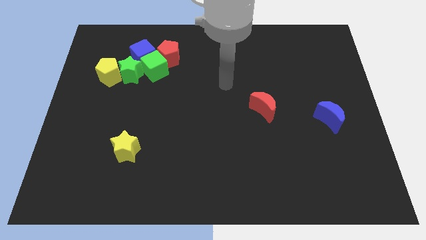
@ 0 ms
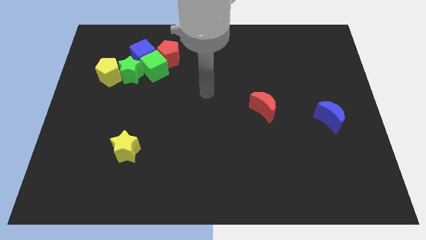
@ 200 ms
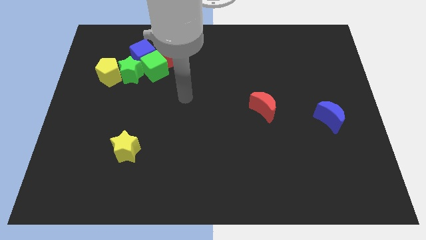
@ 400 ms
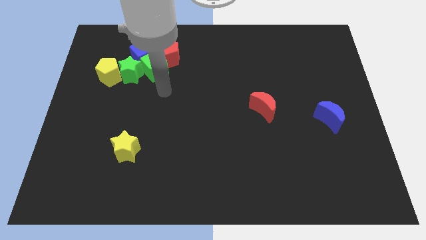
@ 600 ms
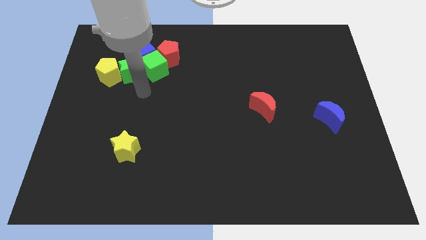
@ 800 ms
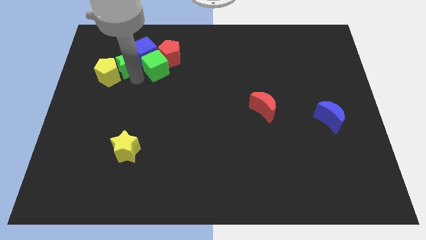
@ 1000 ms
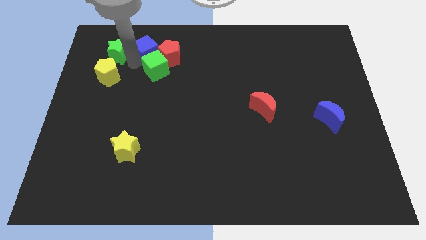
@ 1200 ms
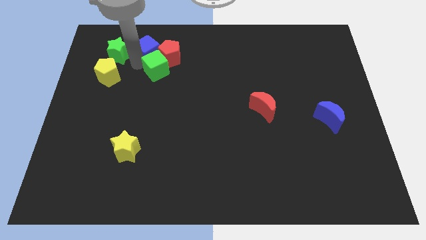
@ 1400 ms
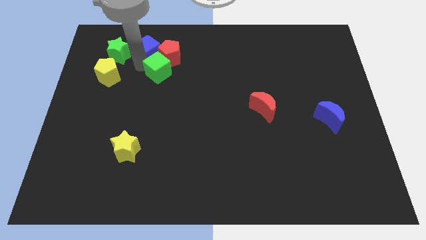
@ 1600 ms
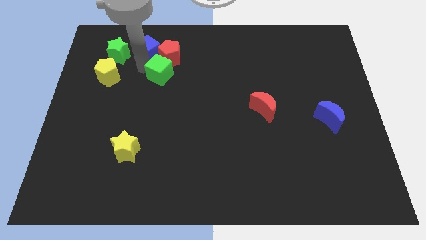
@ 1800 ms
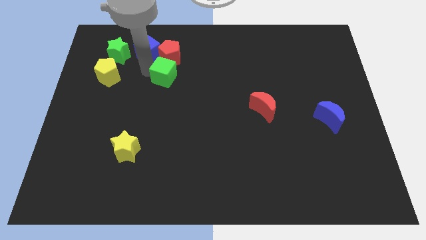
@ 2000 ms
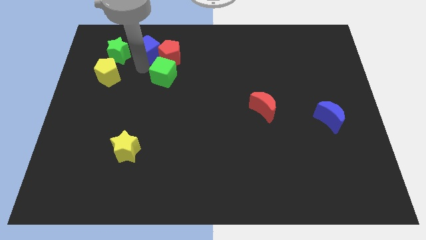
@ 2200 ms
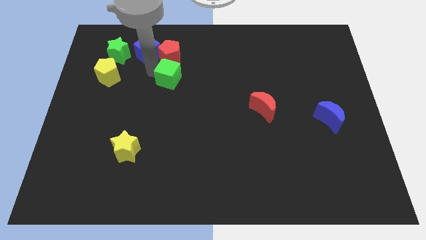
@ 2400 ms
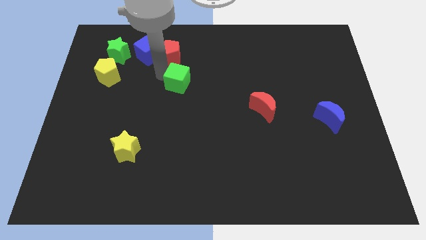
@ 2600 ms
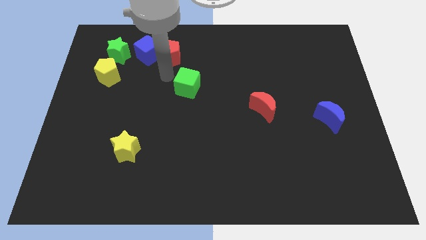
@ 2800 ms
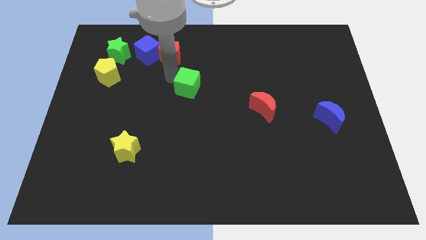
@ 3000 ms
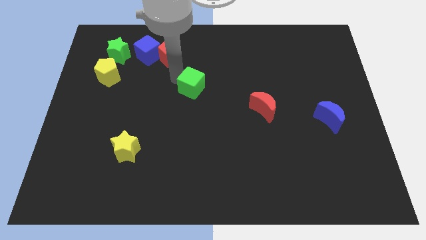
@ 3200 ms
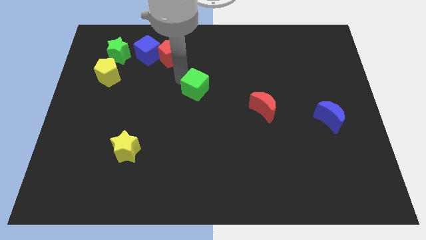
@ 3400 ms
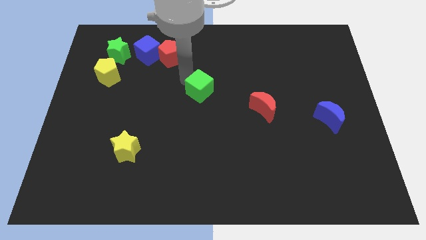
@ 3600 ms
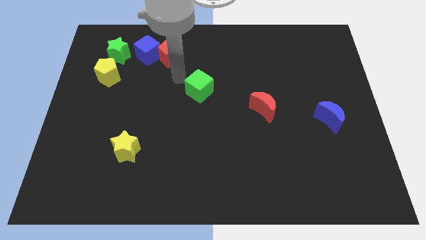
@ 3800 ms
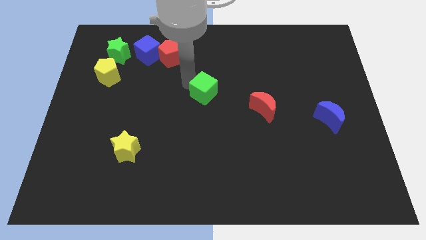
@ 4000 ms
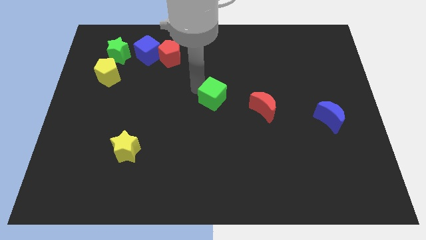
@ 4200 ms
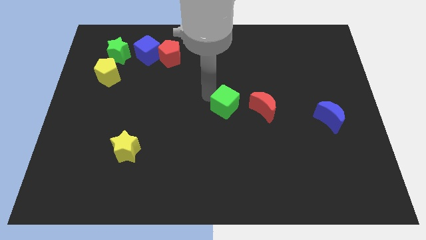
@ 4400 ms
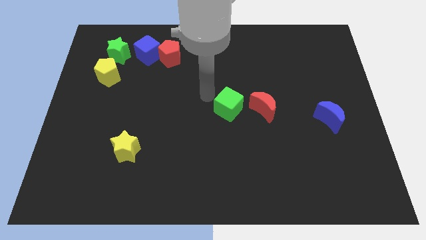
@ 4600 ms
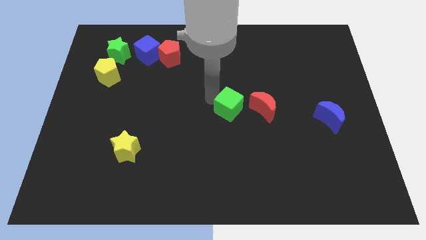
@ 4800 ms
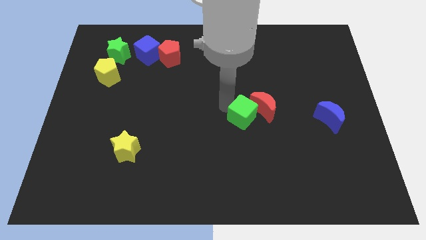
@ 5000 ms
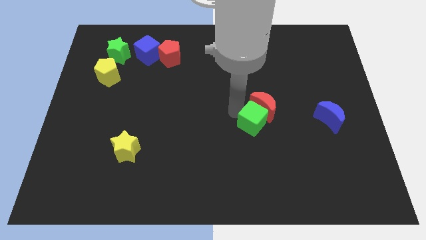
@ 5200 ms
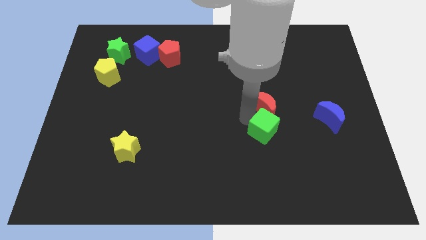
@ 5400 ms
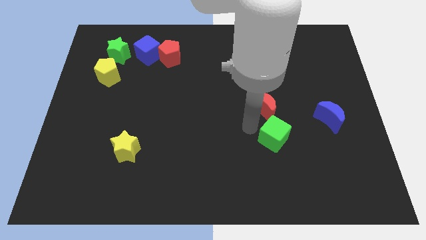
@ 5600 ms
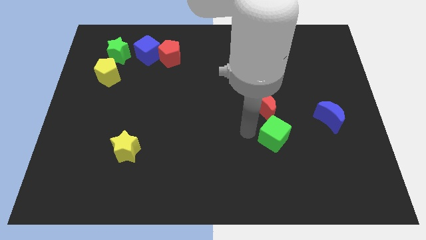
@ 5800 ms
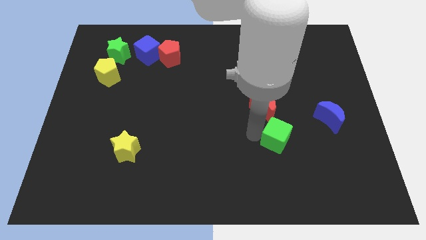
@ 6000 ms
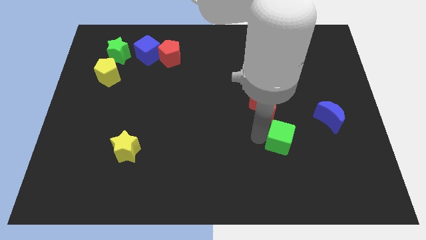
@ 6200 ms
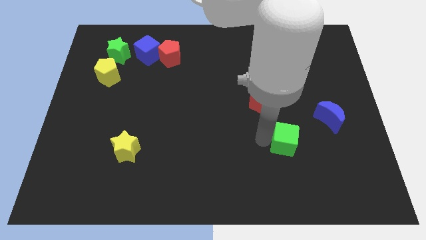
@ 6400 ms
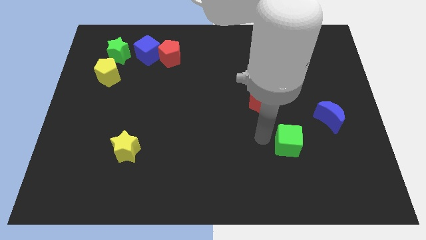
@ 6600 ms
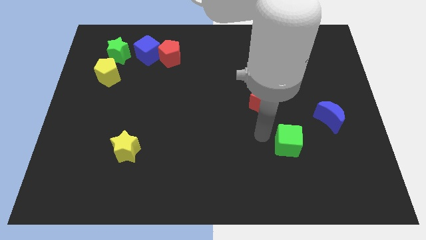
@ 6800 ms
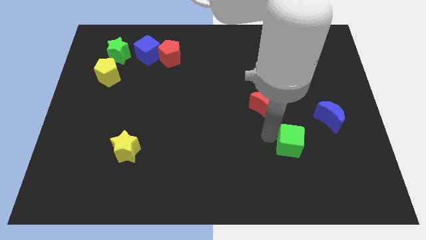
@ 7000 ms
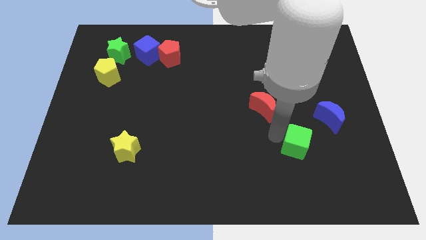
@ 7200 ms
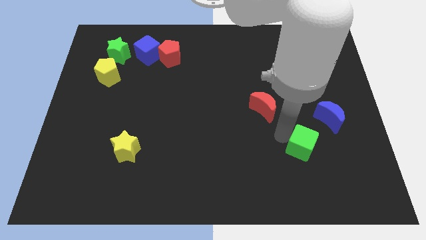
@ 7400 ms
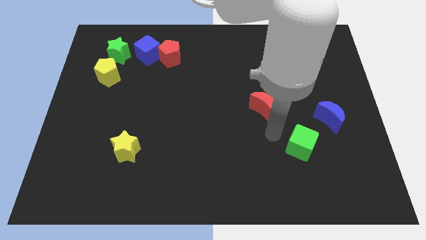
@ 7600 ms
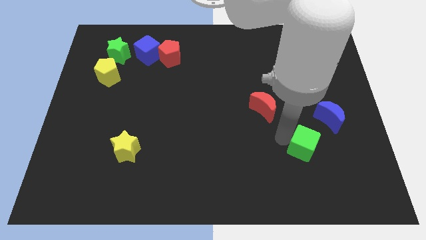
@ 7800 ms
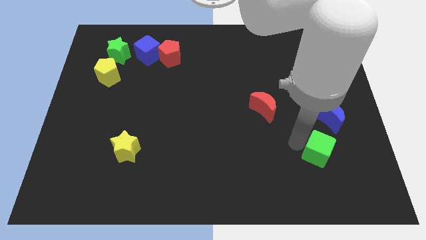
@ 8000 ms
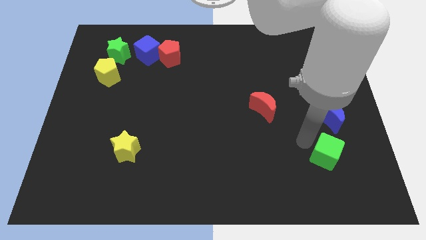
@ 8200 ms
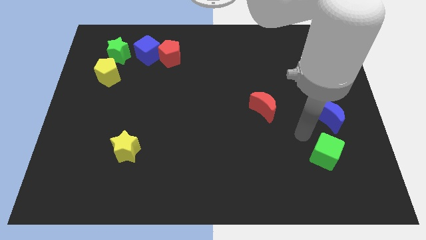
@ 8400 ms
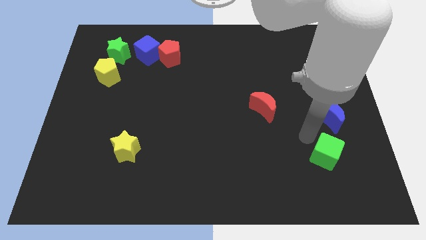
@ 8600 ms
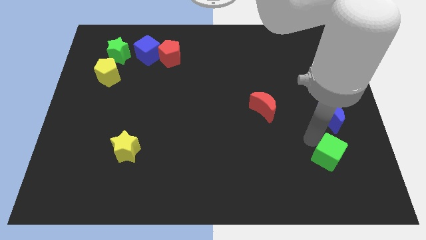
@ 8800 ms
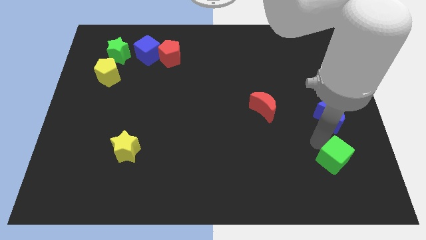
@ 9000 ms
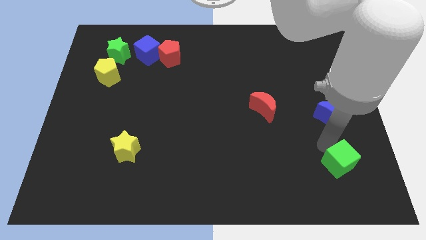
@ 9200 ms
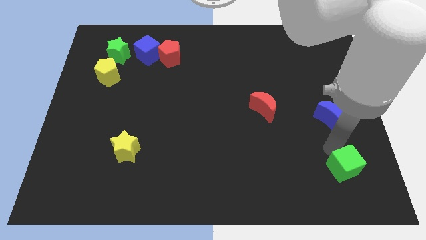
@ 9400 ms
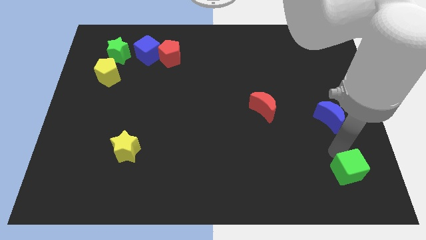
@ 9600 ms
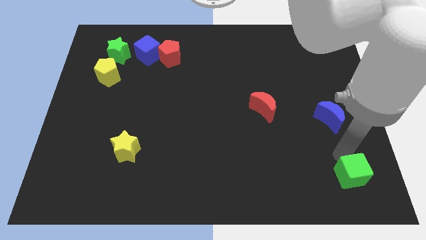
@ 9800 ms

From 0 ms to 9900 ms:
push the green cube to the bottom right of the board

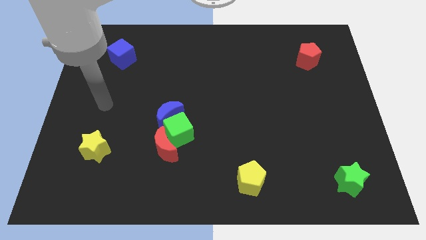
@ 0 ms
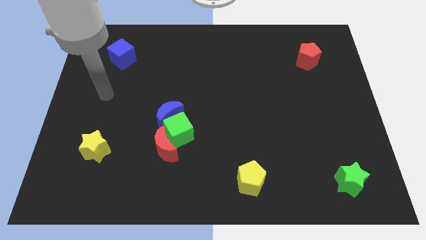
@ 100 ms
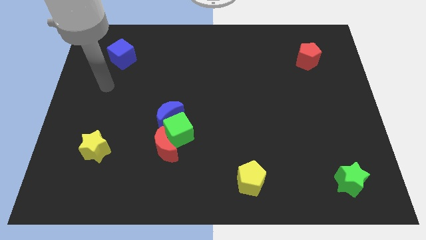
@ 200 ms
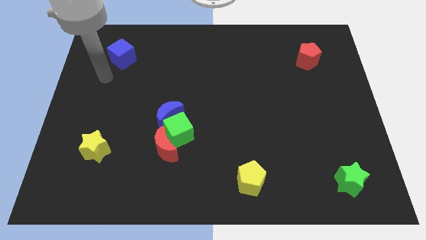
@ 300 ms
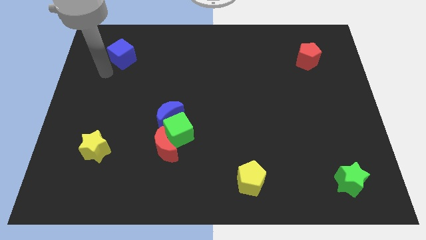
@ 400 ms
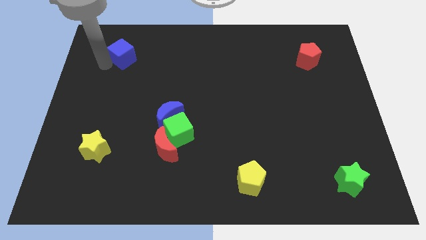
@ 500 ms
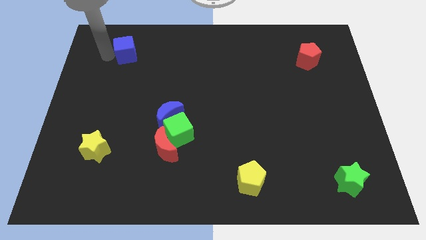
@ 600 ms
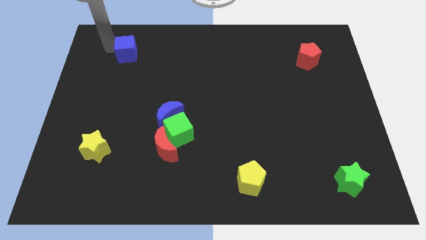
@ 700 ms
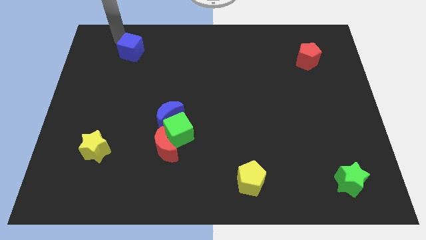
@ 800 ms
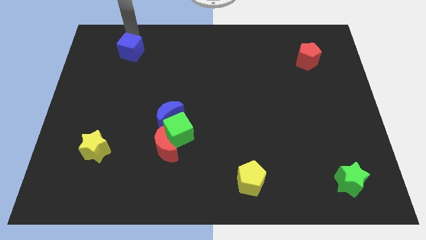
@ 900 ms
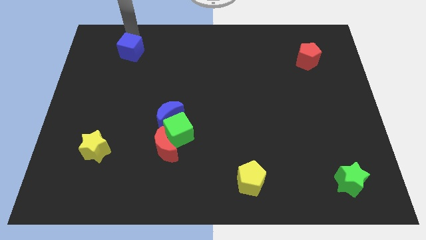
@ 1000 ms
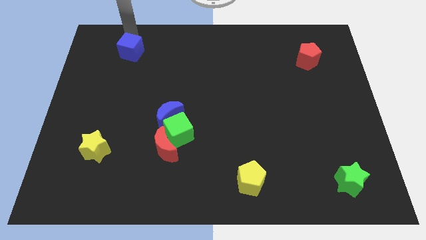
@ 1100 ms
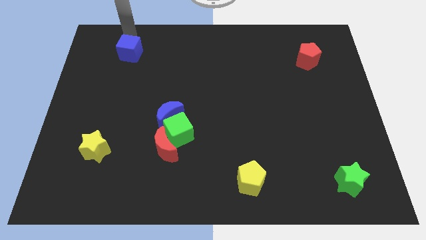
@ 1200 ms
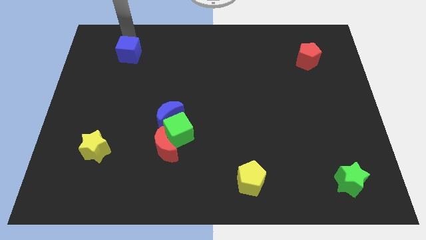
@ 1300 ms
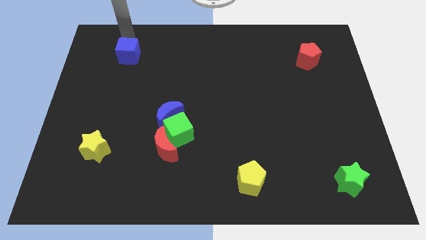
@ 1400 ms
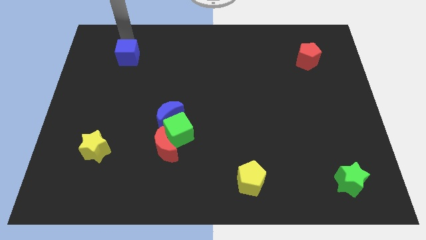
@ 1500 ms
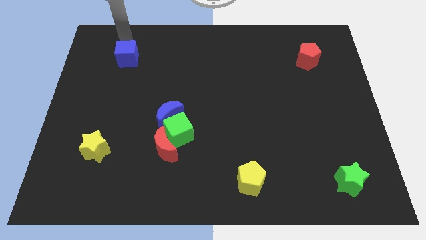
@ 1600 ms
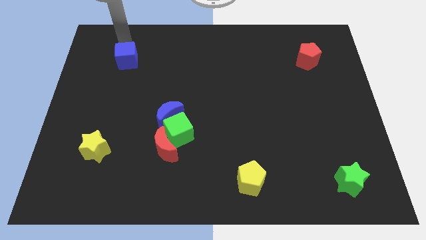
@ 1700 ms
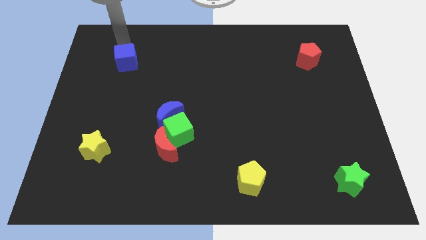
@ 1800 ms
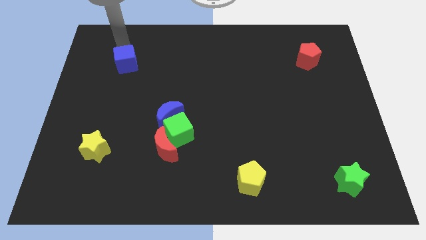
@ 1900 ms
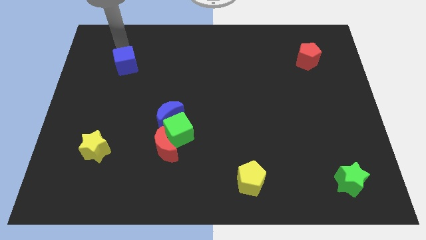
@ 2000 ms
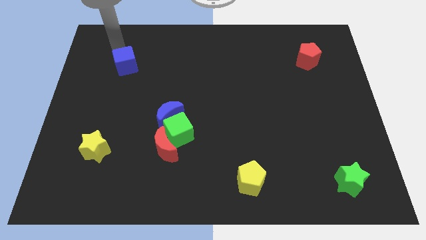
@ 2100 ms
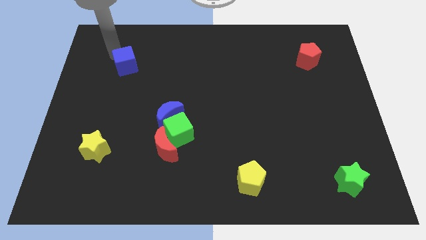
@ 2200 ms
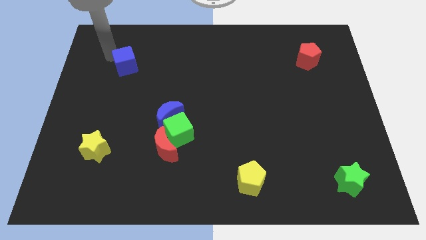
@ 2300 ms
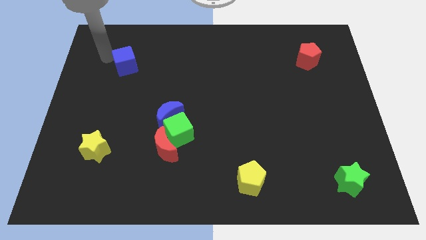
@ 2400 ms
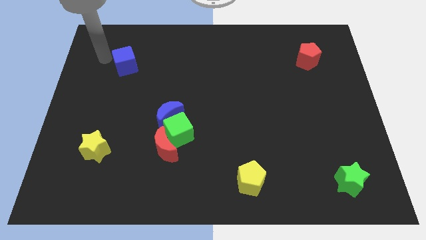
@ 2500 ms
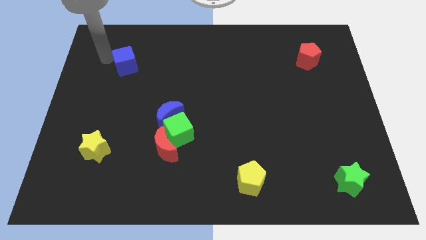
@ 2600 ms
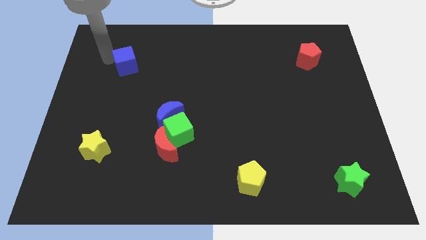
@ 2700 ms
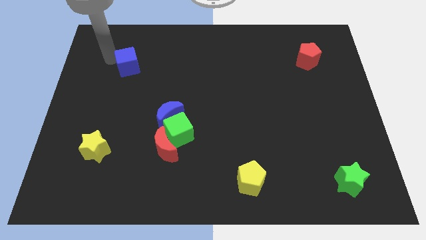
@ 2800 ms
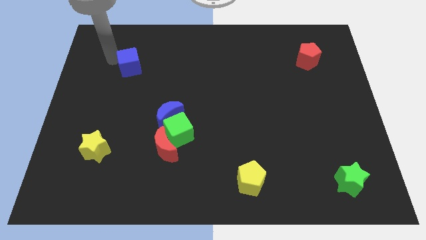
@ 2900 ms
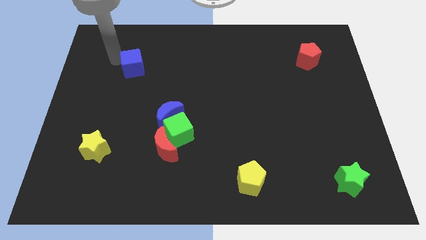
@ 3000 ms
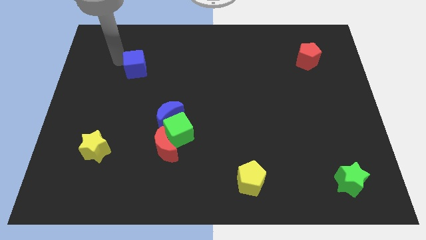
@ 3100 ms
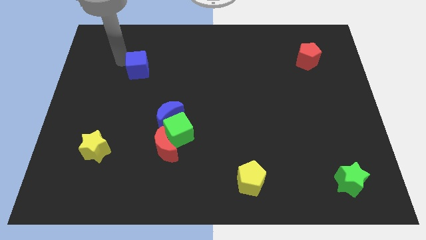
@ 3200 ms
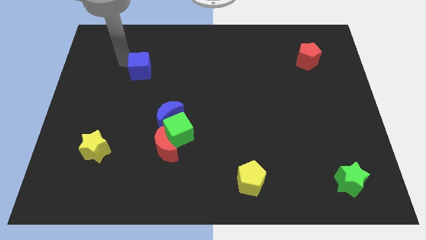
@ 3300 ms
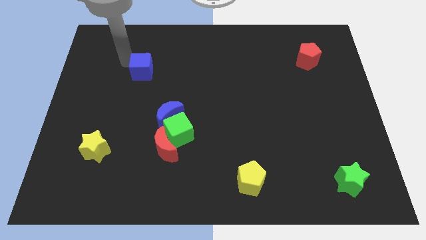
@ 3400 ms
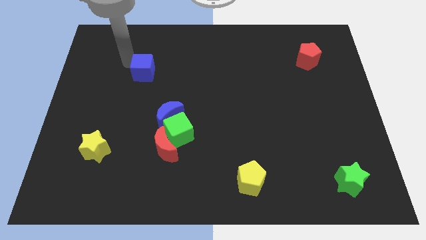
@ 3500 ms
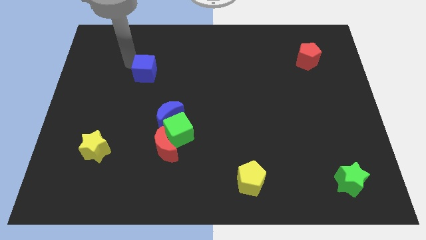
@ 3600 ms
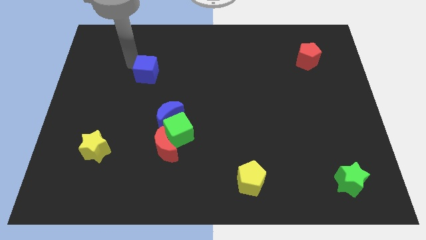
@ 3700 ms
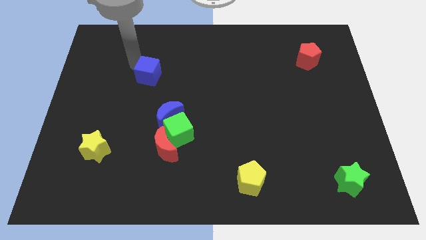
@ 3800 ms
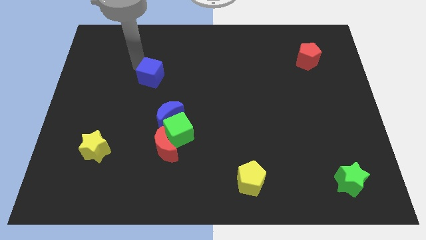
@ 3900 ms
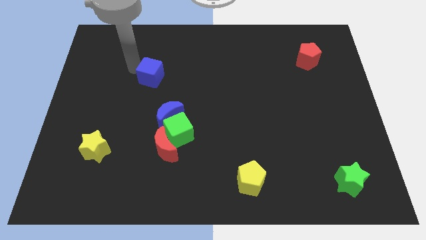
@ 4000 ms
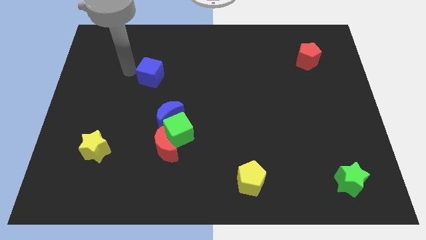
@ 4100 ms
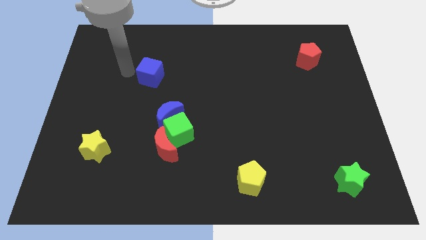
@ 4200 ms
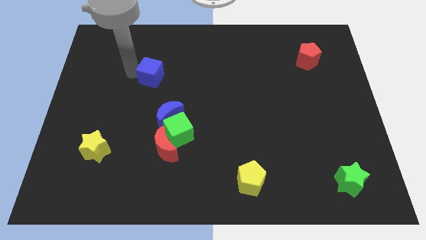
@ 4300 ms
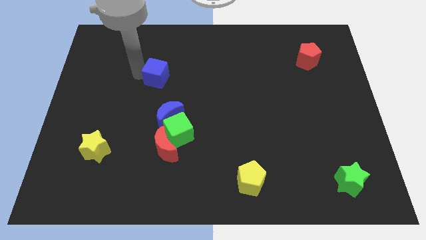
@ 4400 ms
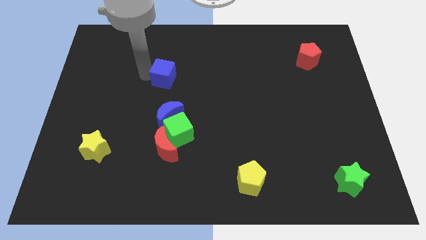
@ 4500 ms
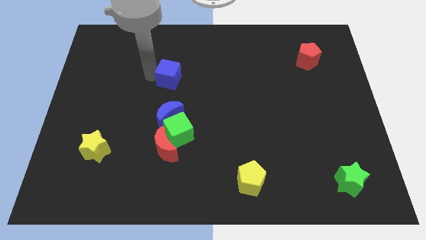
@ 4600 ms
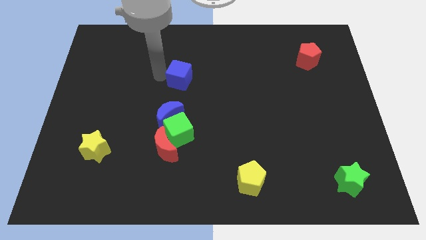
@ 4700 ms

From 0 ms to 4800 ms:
put the blue cube to the center of the board
